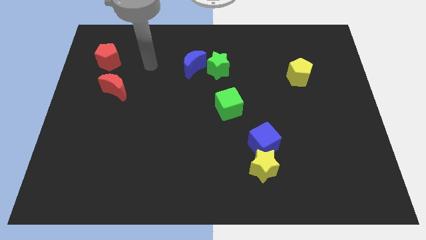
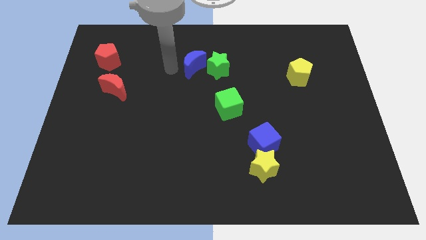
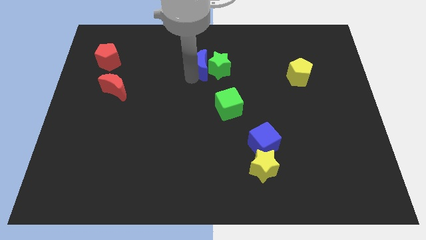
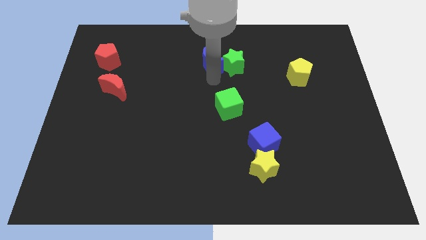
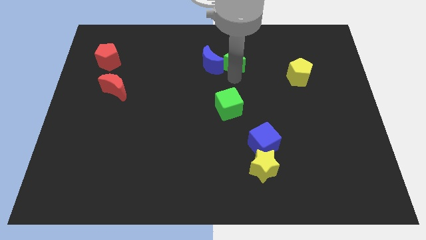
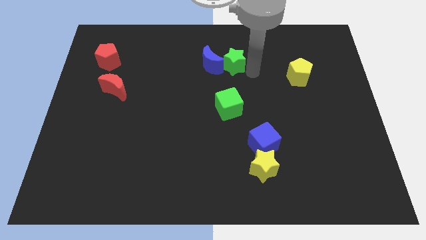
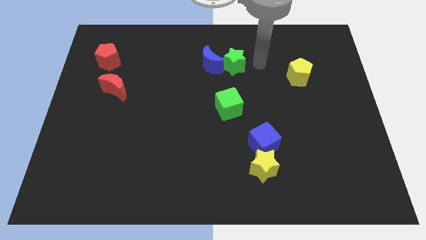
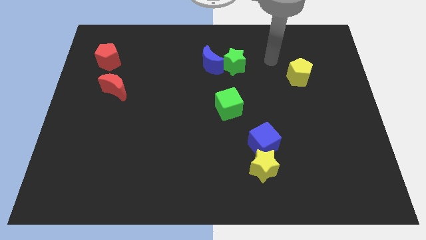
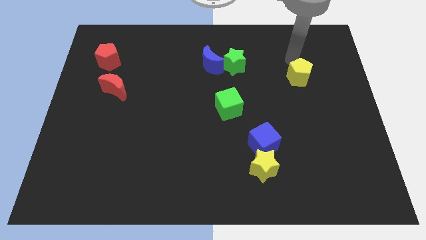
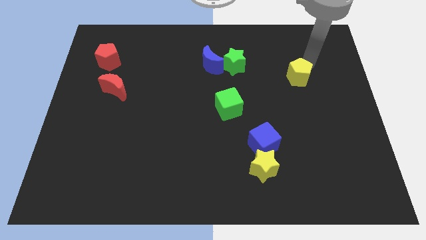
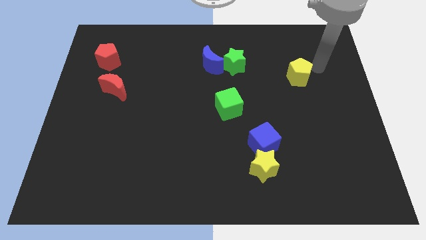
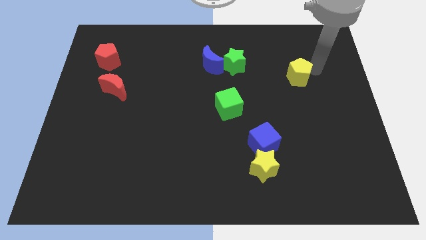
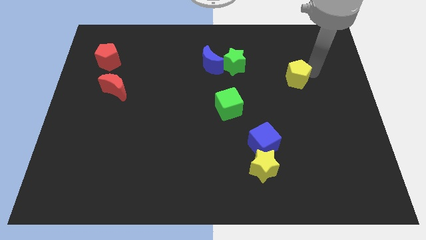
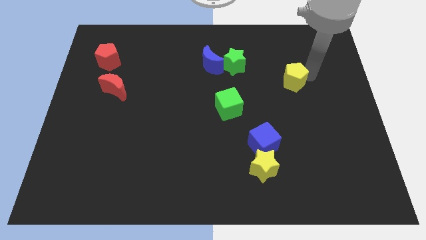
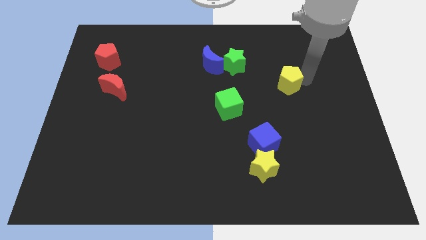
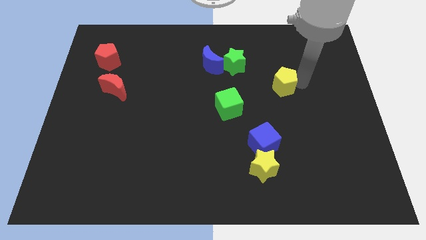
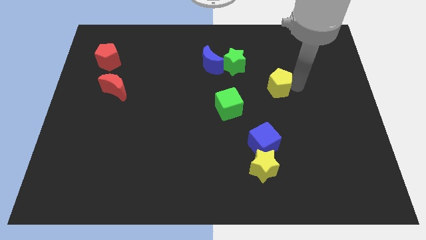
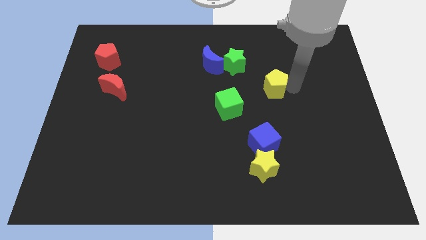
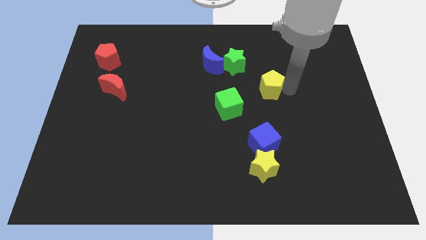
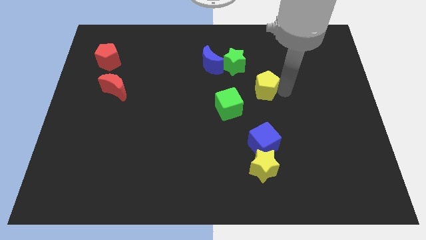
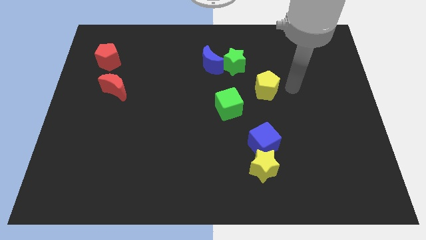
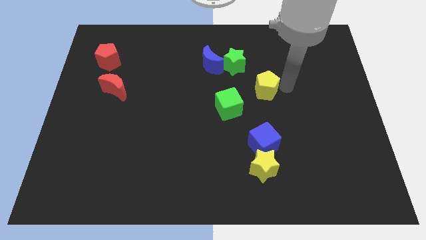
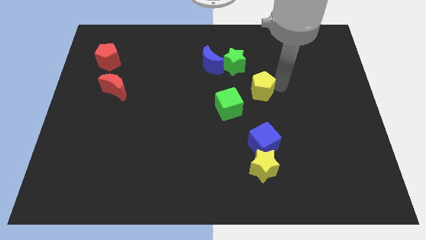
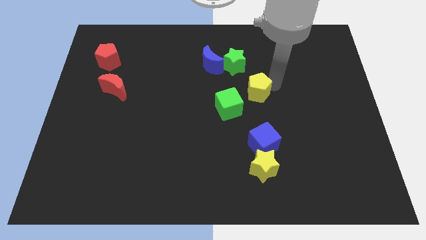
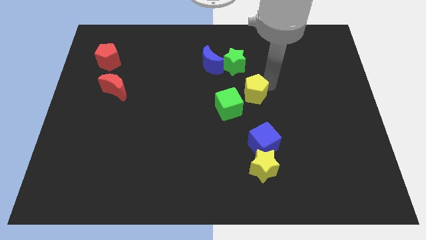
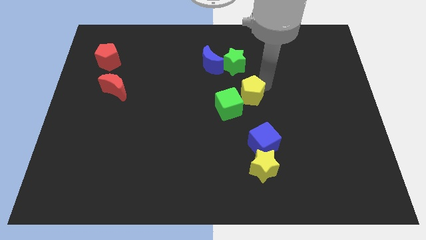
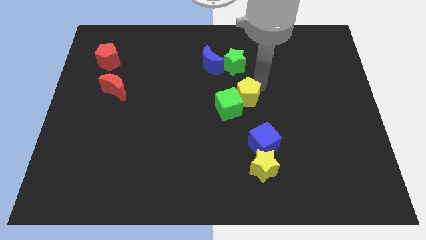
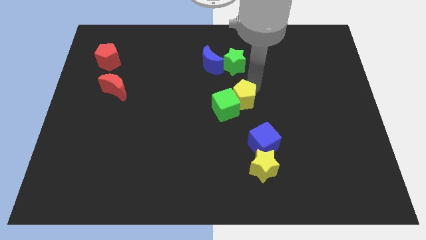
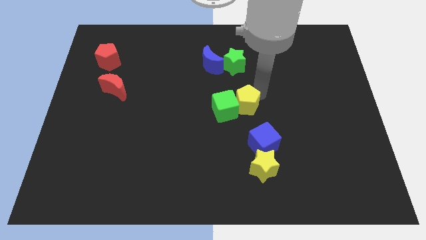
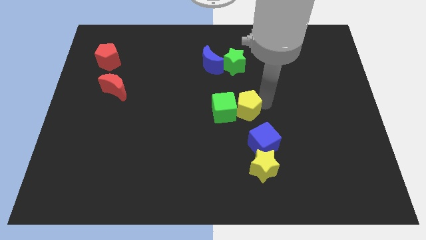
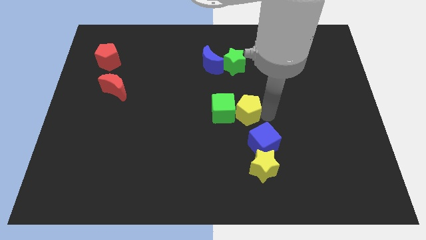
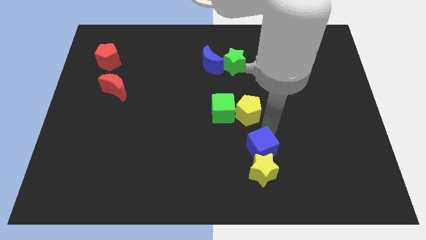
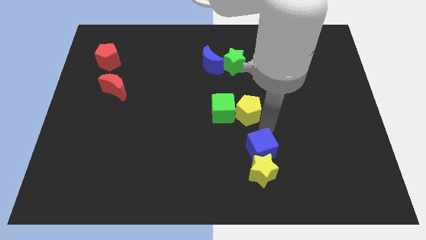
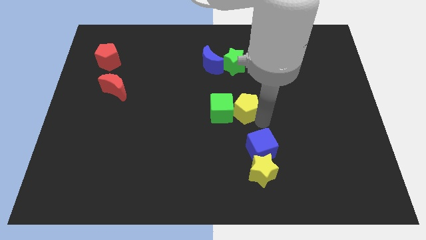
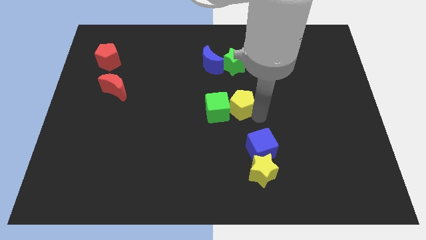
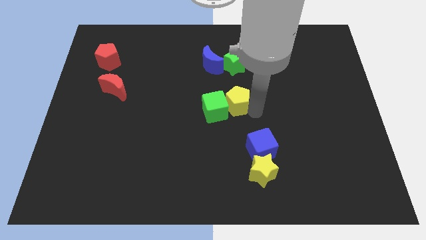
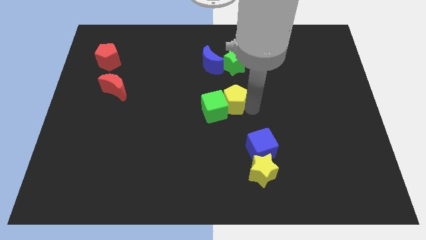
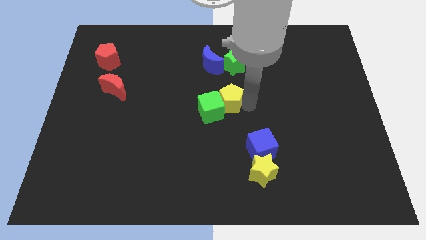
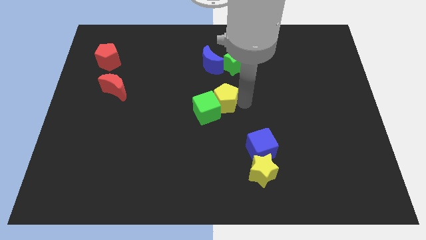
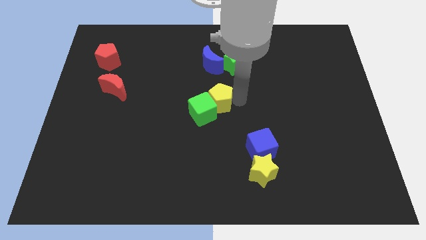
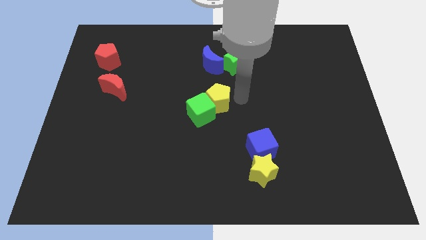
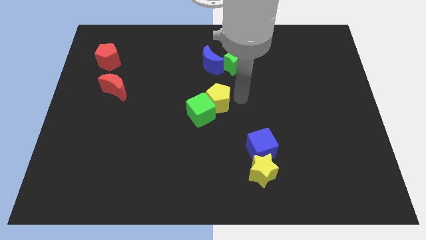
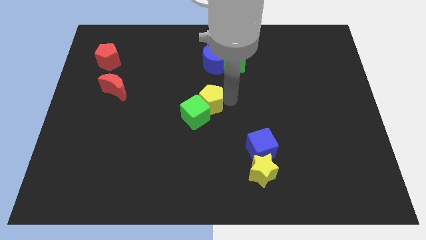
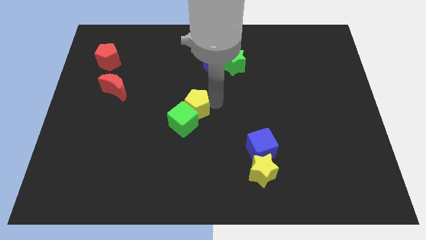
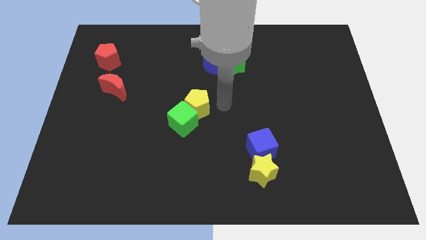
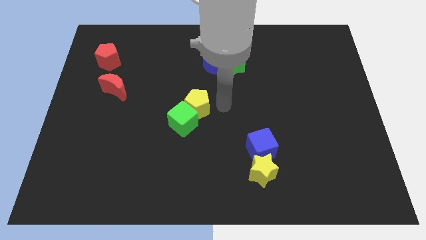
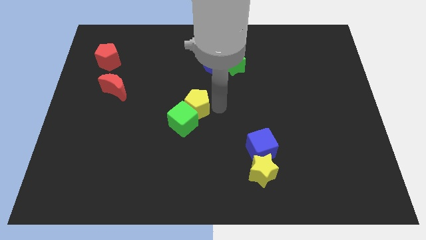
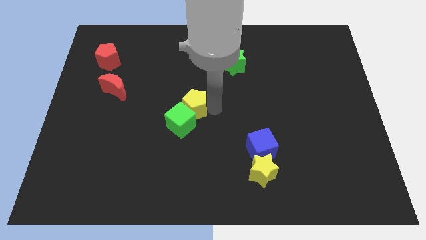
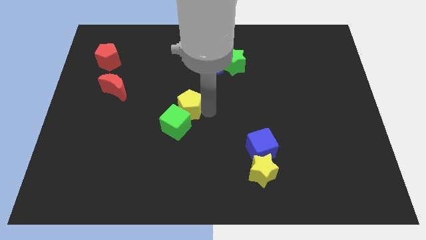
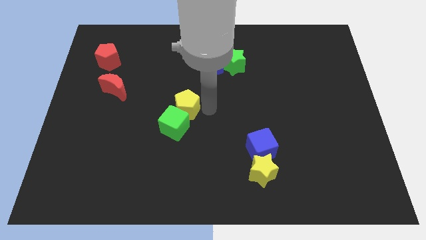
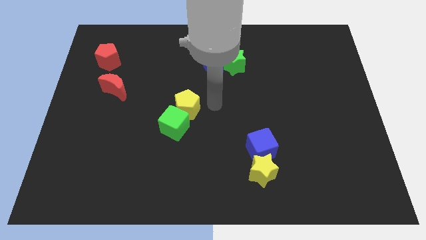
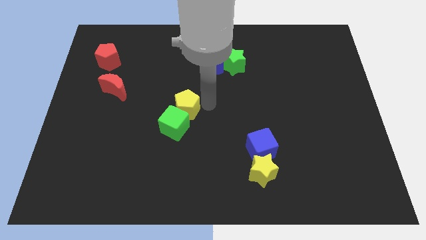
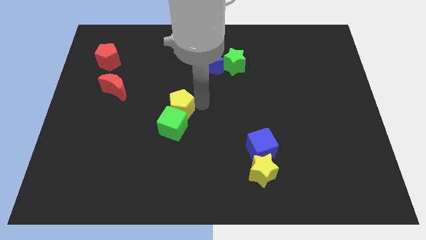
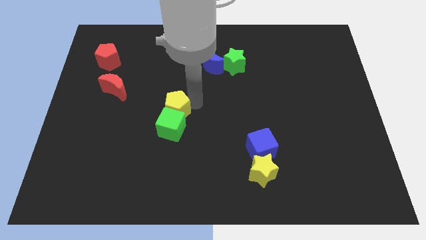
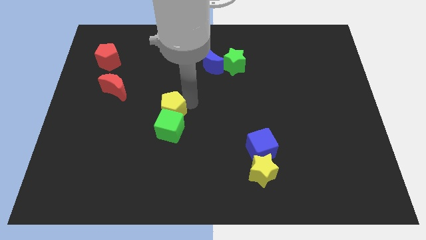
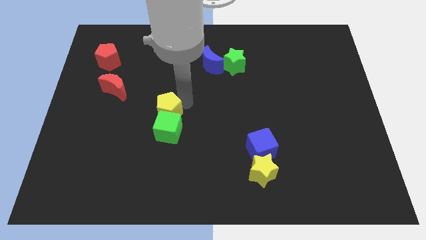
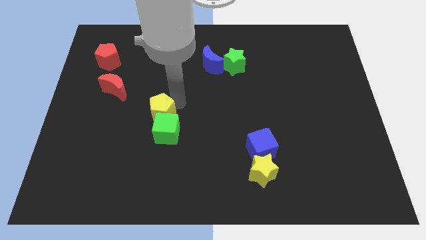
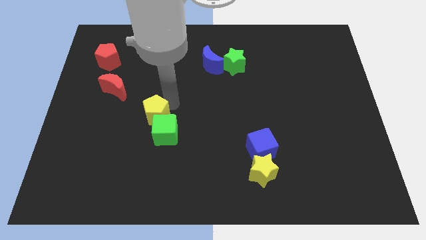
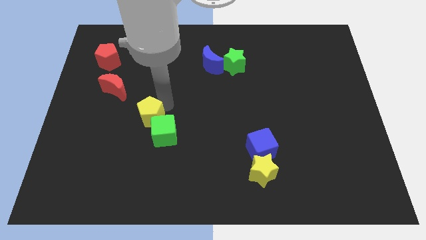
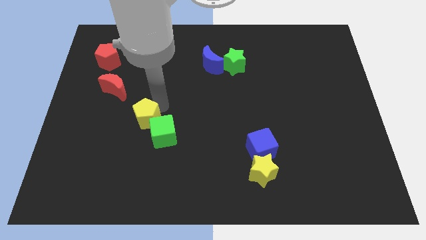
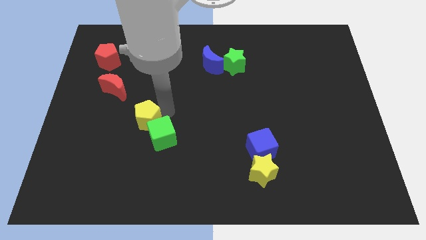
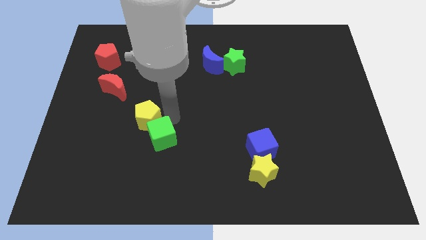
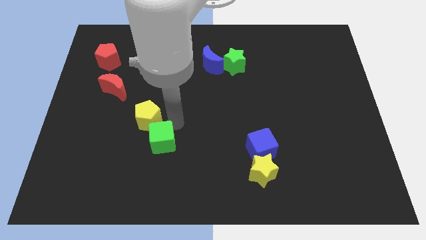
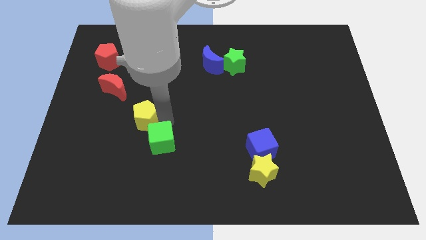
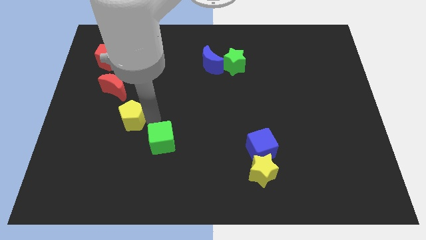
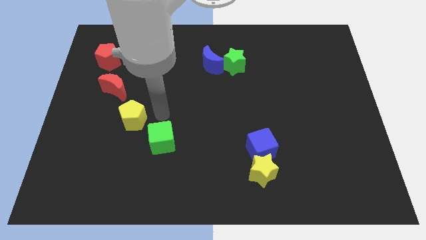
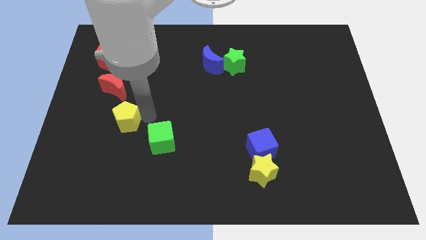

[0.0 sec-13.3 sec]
move the yellow pentagon to the bottom side of the red moon
